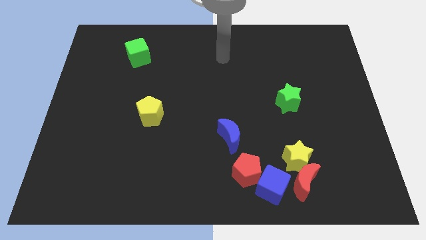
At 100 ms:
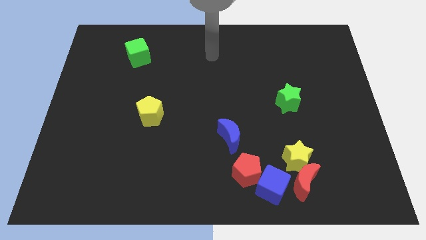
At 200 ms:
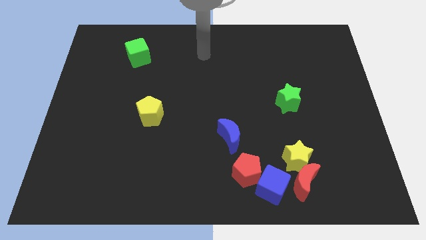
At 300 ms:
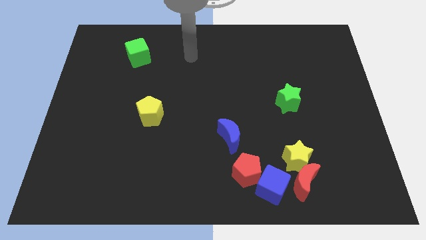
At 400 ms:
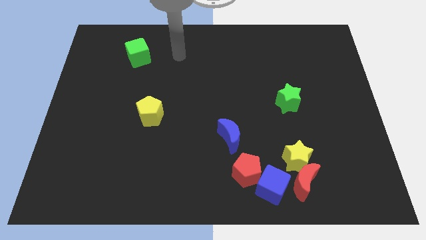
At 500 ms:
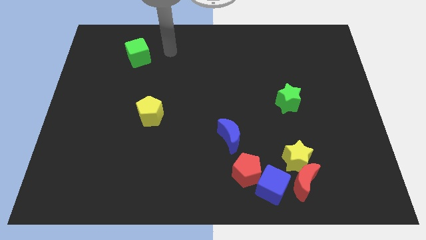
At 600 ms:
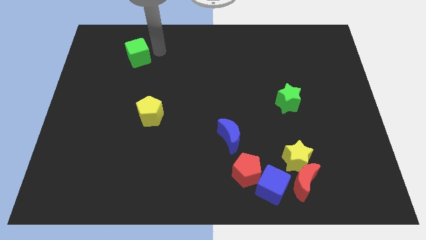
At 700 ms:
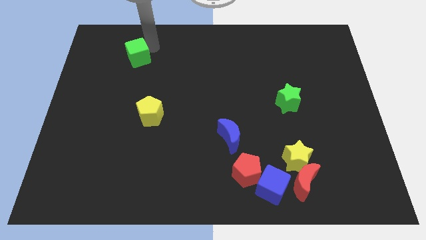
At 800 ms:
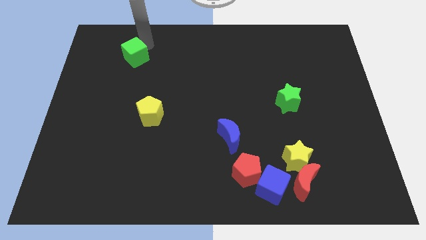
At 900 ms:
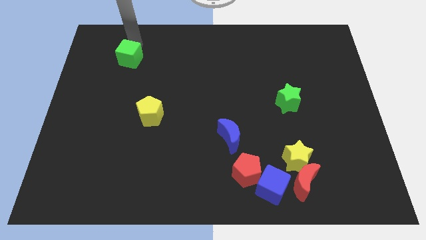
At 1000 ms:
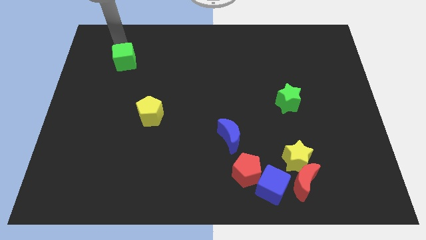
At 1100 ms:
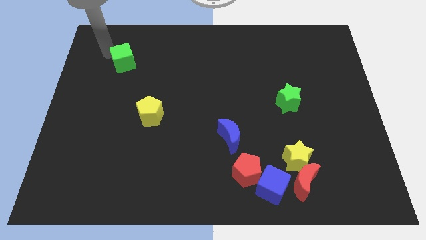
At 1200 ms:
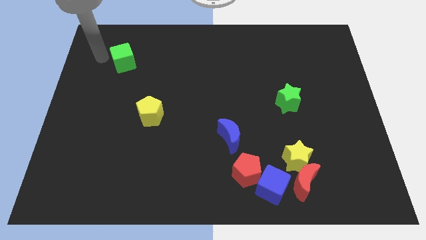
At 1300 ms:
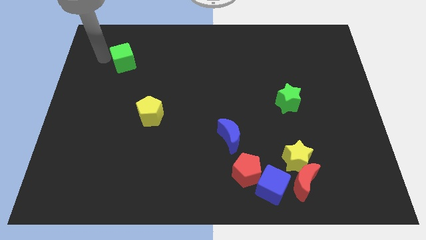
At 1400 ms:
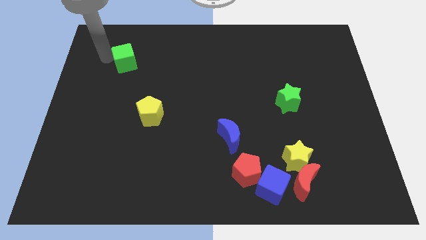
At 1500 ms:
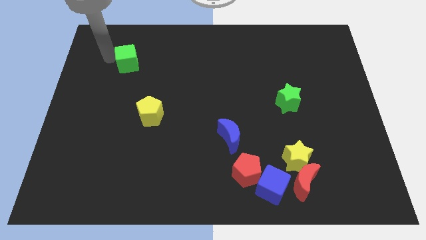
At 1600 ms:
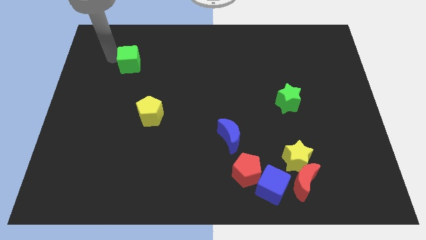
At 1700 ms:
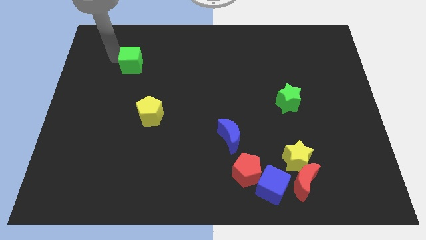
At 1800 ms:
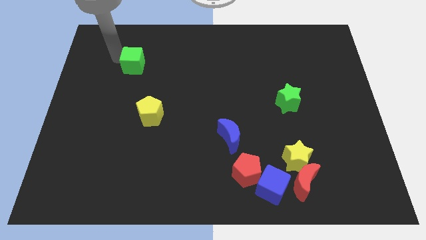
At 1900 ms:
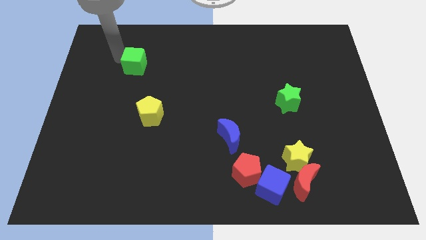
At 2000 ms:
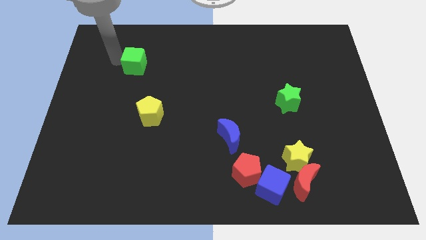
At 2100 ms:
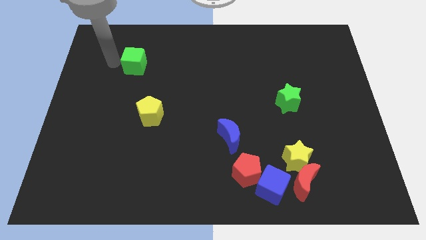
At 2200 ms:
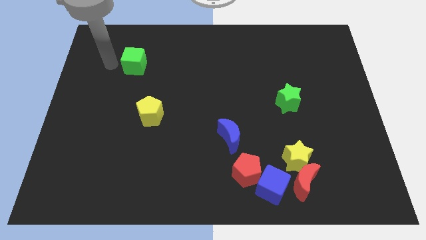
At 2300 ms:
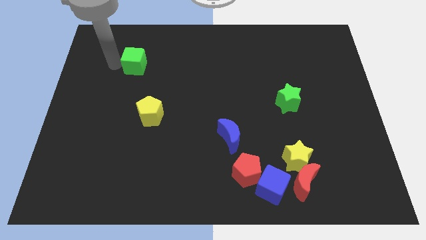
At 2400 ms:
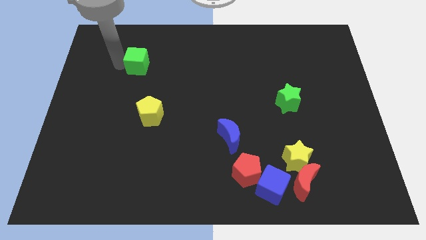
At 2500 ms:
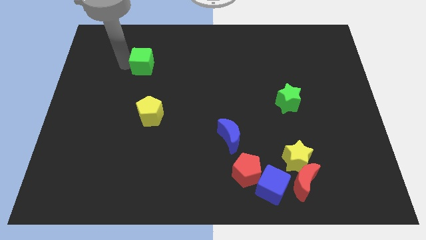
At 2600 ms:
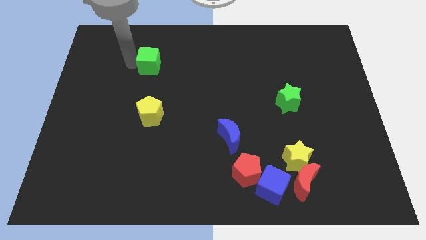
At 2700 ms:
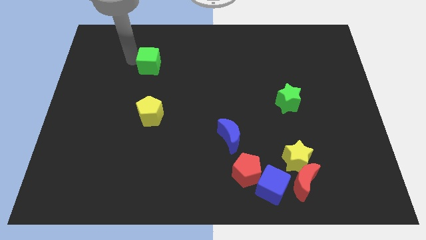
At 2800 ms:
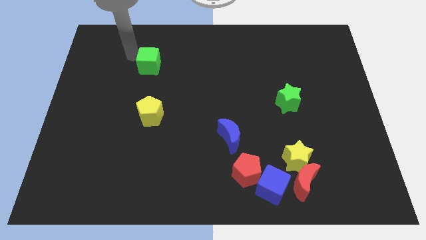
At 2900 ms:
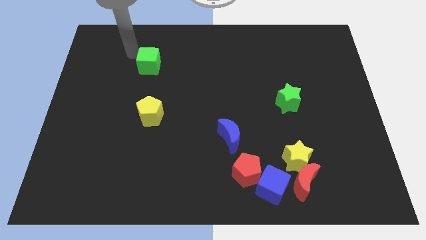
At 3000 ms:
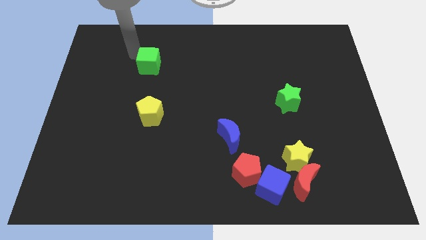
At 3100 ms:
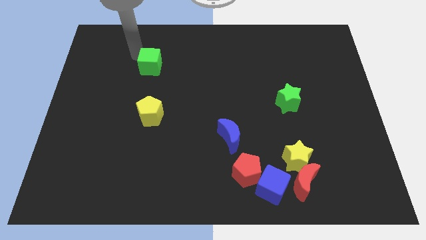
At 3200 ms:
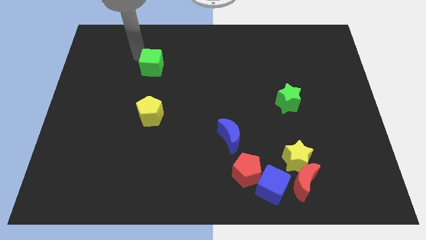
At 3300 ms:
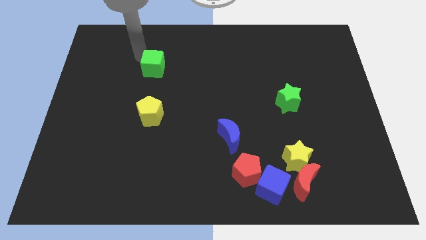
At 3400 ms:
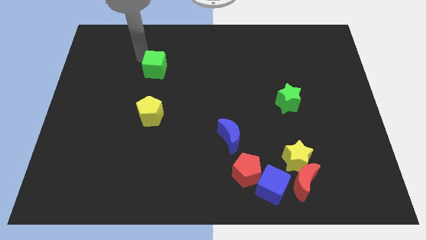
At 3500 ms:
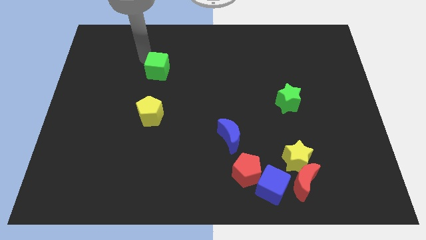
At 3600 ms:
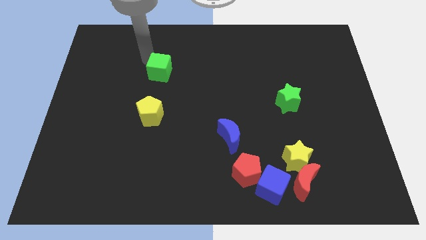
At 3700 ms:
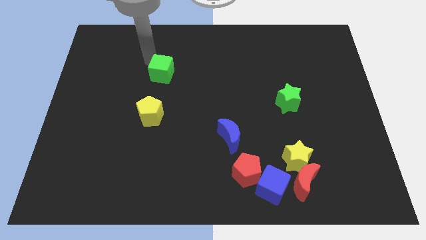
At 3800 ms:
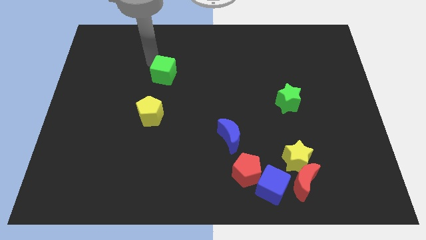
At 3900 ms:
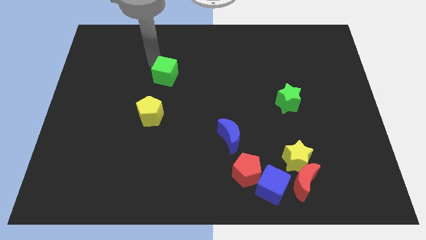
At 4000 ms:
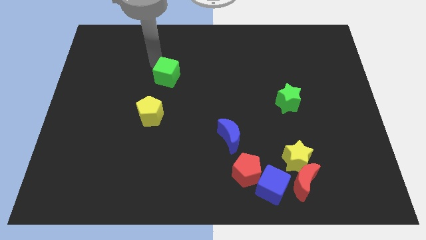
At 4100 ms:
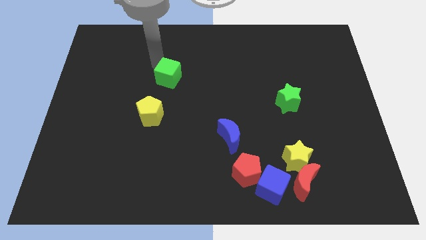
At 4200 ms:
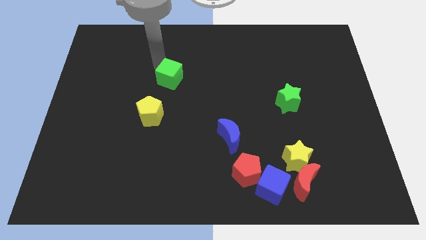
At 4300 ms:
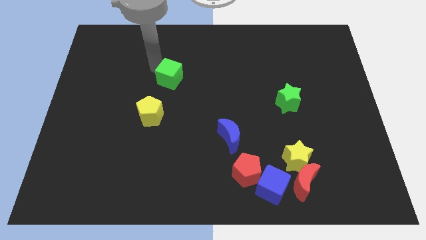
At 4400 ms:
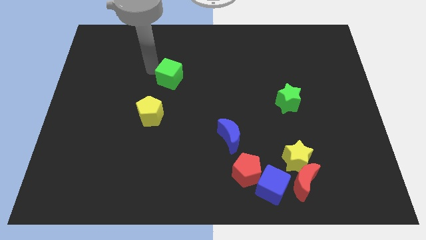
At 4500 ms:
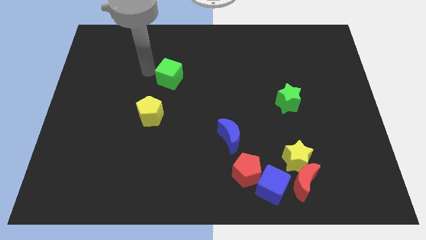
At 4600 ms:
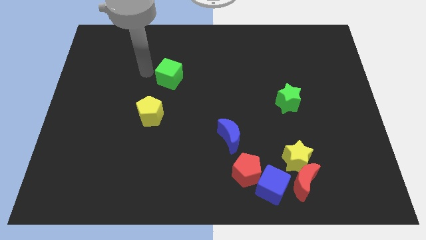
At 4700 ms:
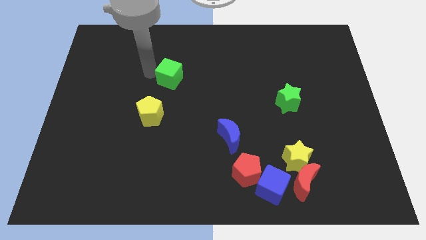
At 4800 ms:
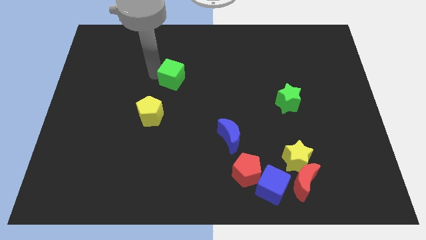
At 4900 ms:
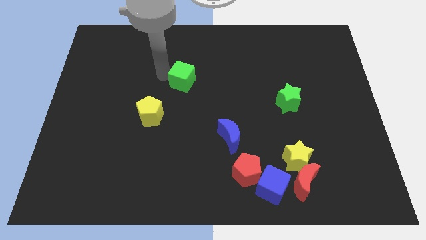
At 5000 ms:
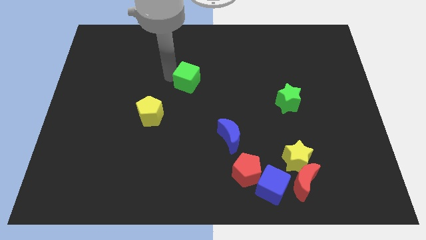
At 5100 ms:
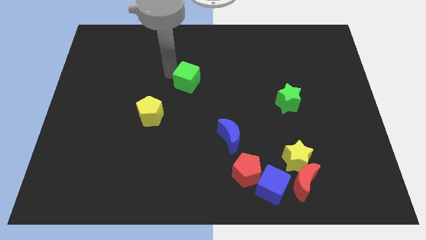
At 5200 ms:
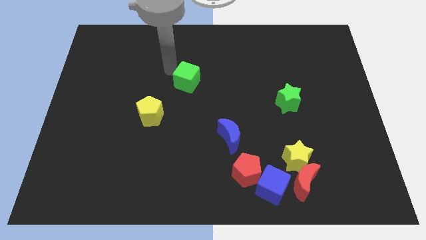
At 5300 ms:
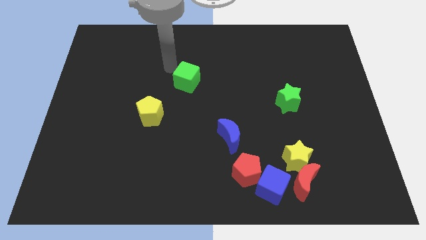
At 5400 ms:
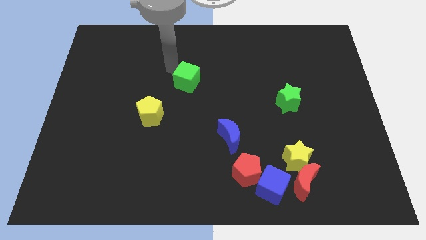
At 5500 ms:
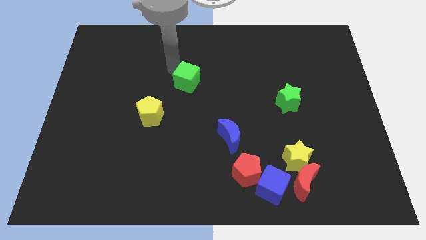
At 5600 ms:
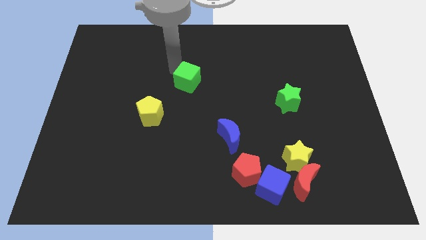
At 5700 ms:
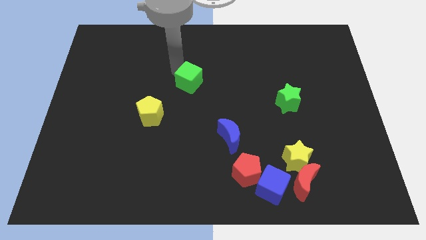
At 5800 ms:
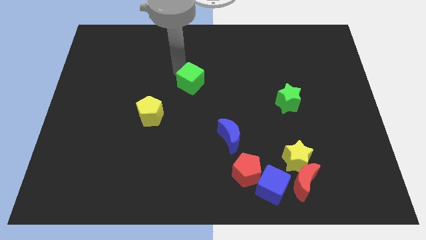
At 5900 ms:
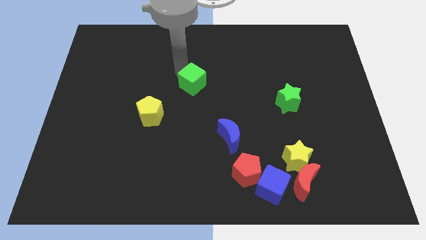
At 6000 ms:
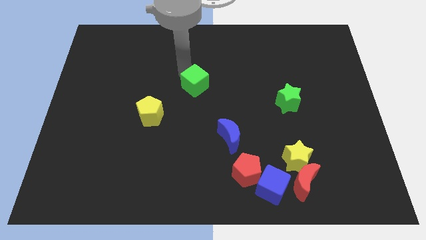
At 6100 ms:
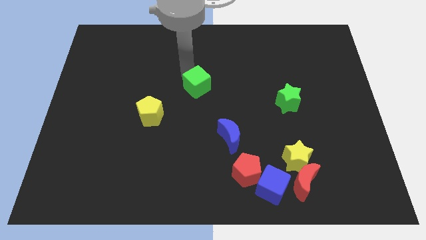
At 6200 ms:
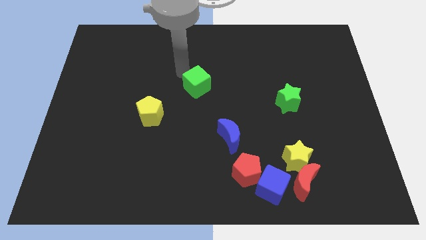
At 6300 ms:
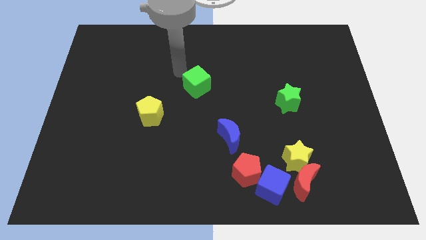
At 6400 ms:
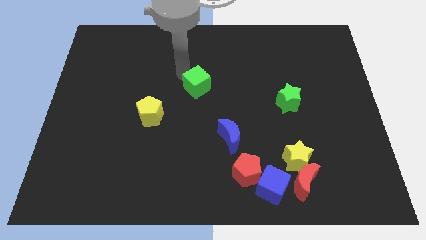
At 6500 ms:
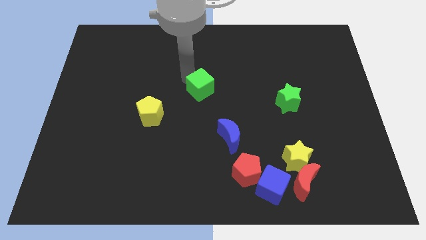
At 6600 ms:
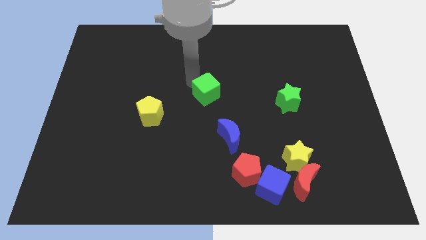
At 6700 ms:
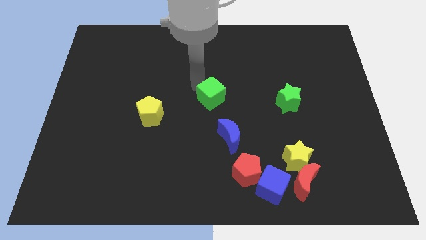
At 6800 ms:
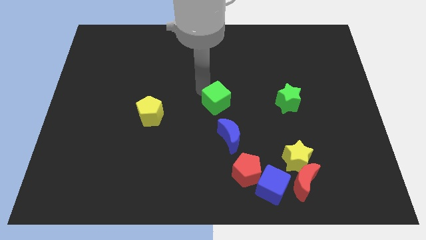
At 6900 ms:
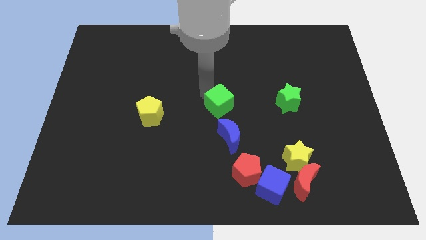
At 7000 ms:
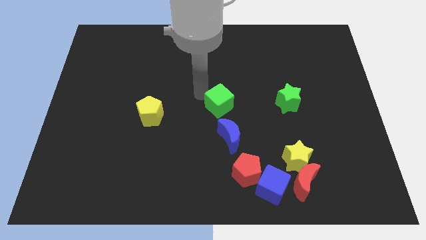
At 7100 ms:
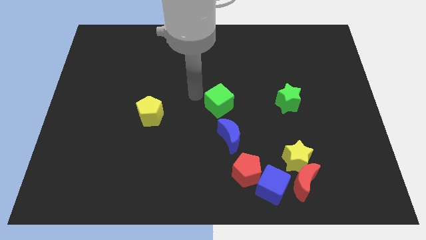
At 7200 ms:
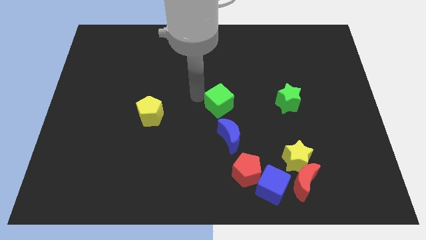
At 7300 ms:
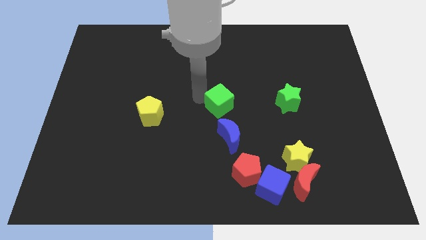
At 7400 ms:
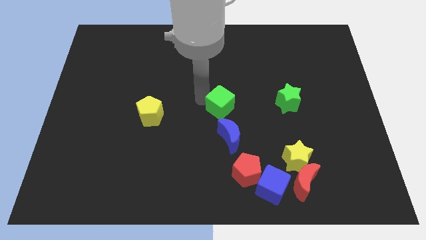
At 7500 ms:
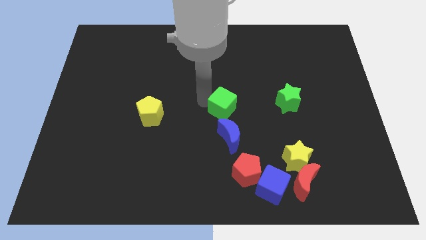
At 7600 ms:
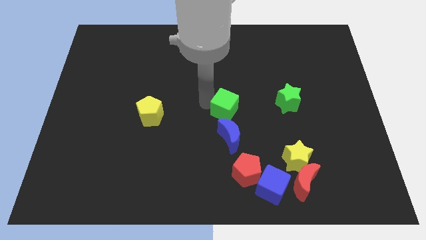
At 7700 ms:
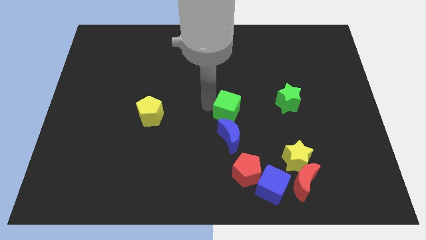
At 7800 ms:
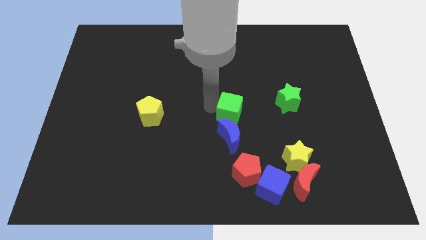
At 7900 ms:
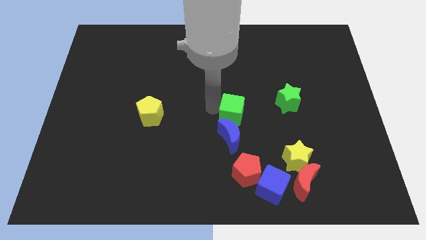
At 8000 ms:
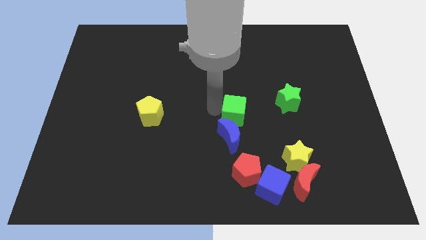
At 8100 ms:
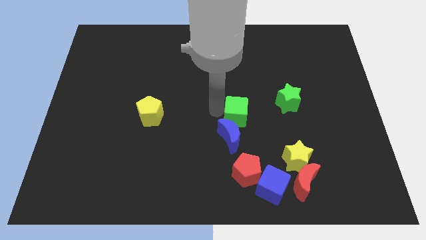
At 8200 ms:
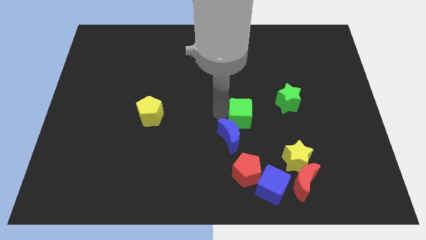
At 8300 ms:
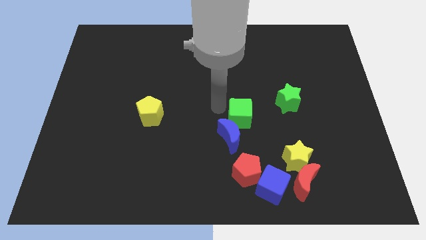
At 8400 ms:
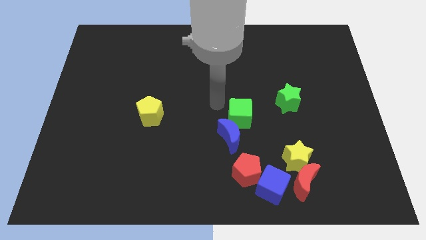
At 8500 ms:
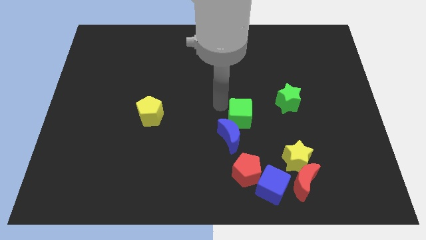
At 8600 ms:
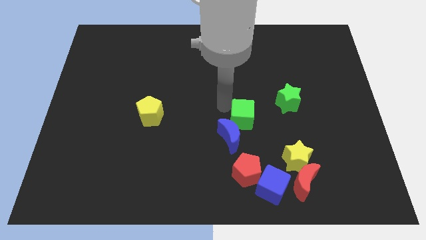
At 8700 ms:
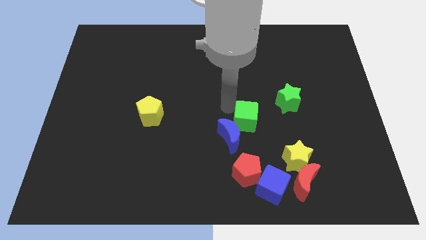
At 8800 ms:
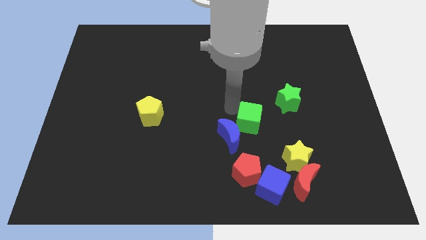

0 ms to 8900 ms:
put the green cube right of the blue moon
